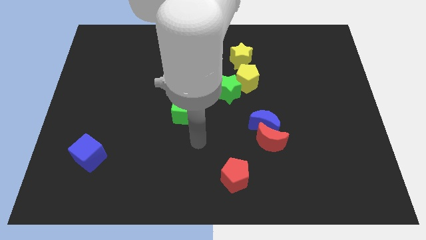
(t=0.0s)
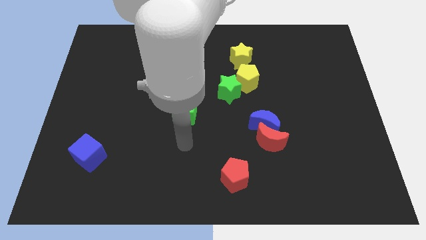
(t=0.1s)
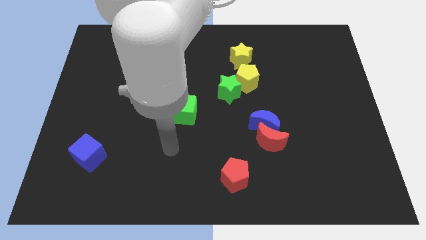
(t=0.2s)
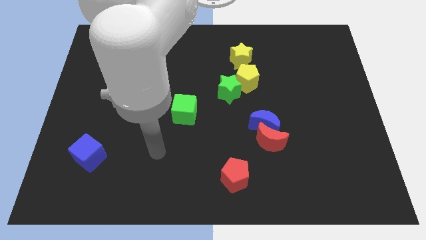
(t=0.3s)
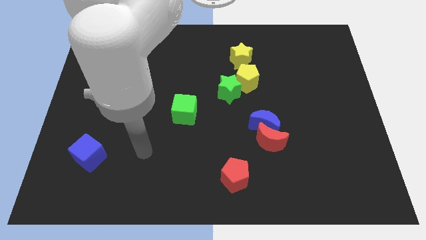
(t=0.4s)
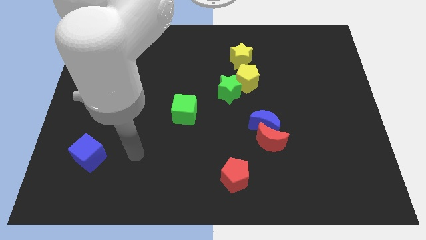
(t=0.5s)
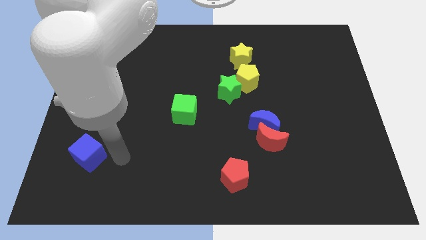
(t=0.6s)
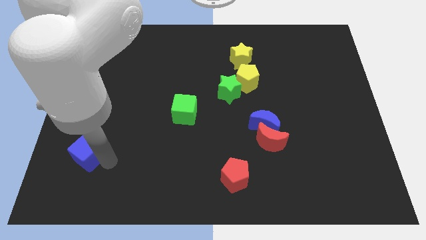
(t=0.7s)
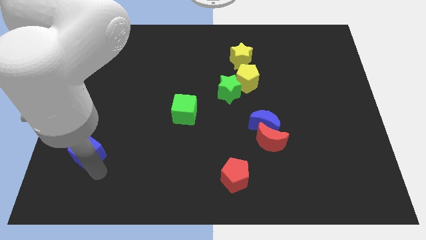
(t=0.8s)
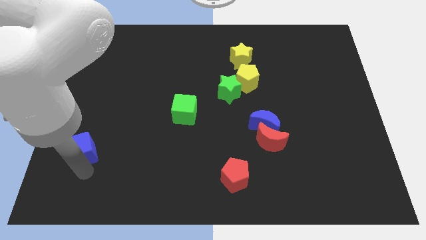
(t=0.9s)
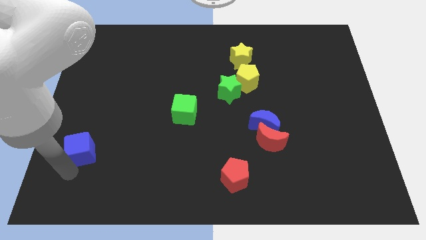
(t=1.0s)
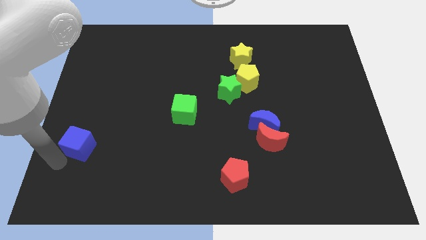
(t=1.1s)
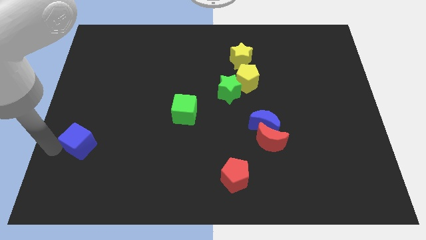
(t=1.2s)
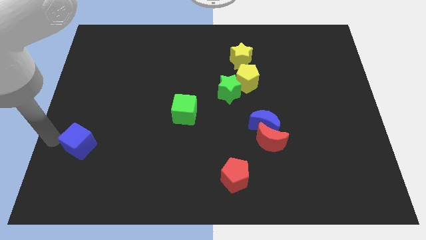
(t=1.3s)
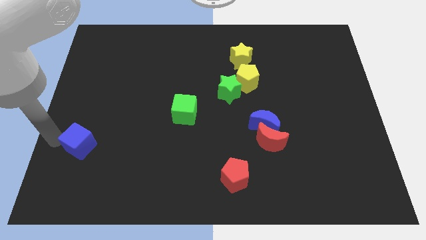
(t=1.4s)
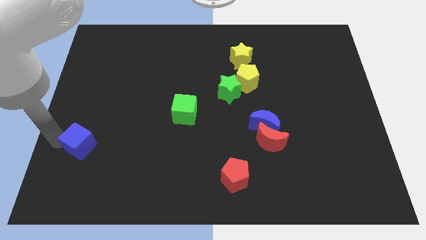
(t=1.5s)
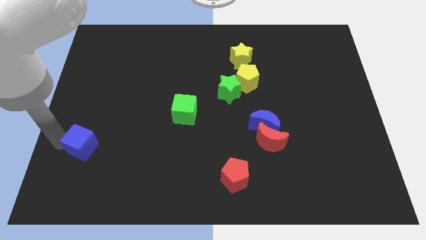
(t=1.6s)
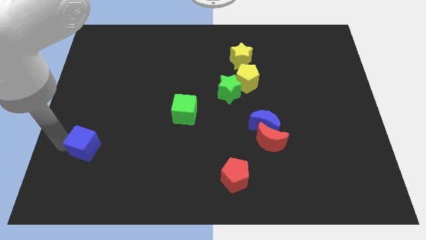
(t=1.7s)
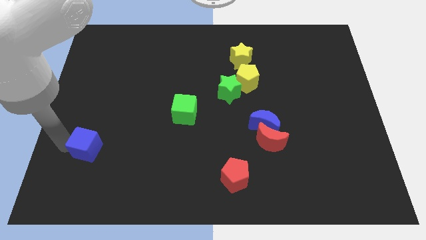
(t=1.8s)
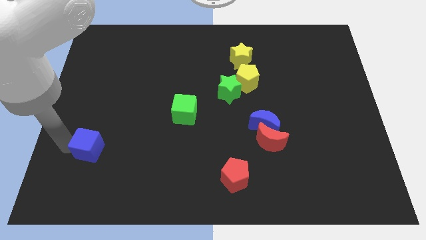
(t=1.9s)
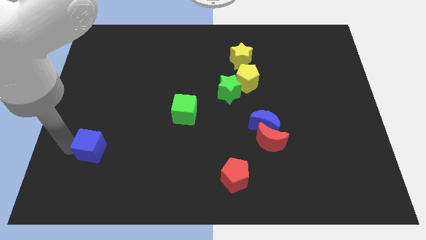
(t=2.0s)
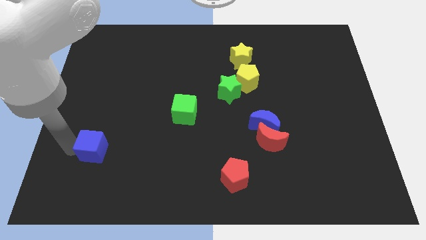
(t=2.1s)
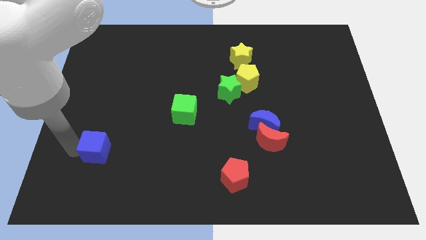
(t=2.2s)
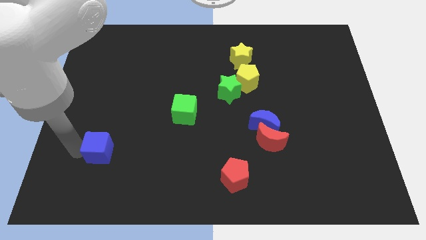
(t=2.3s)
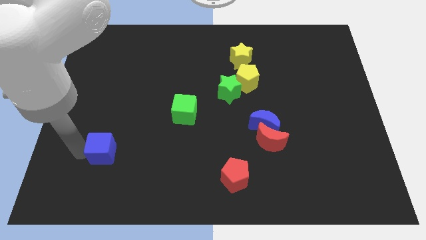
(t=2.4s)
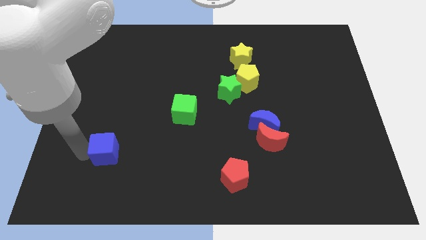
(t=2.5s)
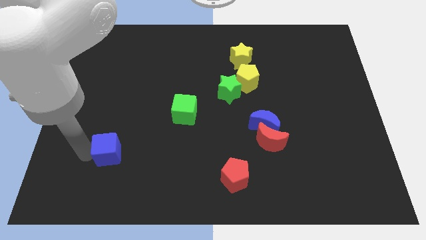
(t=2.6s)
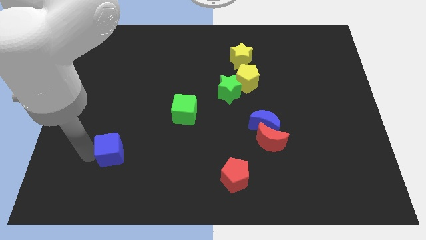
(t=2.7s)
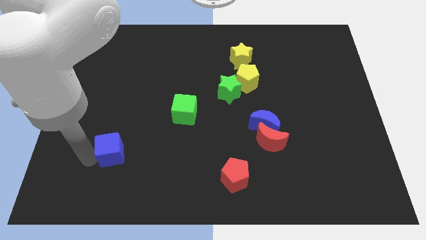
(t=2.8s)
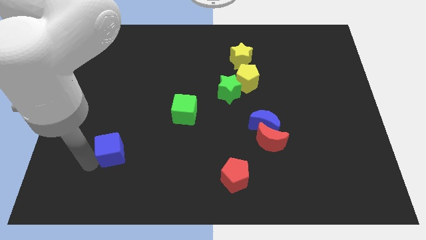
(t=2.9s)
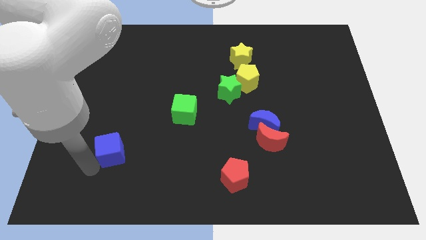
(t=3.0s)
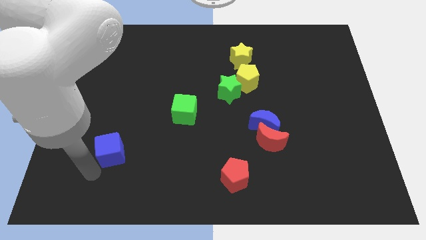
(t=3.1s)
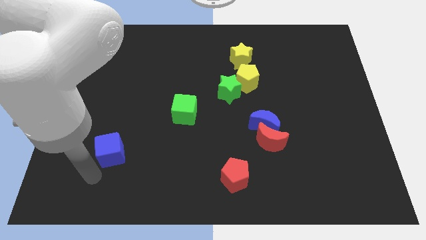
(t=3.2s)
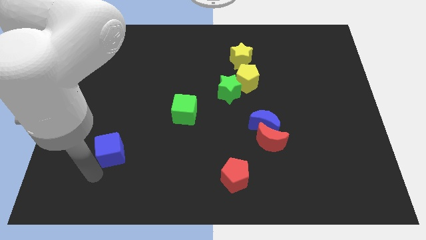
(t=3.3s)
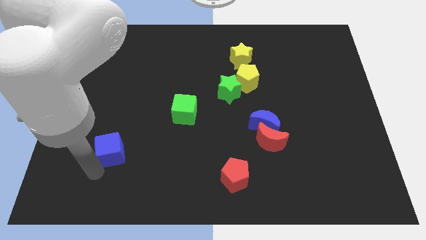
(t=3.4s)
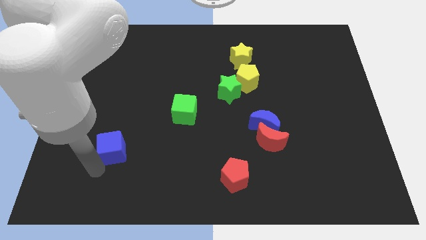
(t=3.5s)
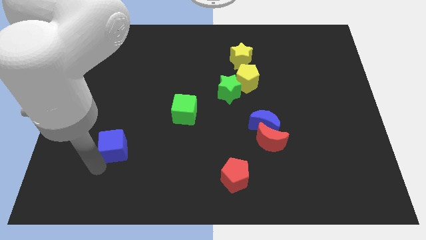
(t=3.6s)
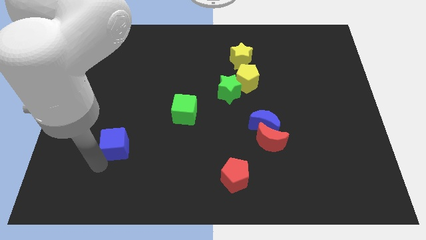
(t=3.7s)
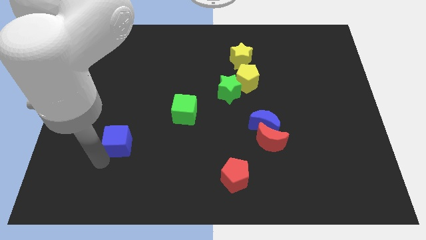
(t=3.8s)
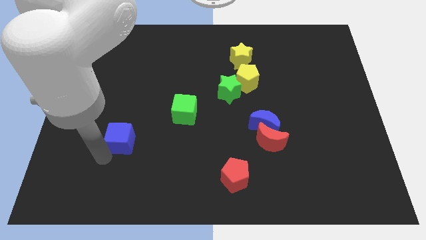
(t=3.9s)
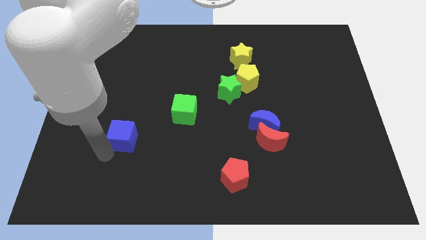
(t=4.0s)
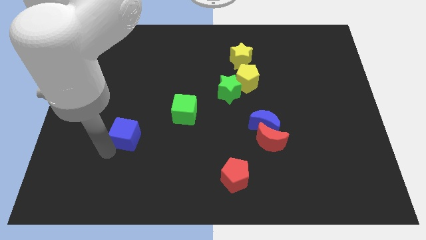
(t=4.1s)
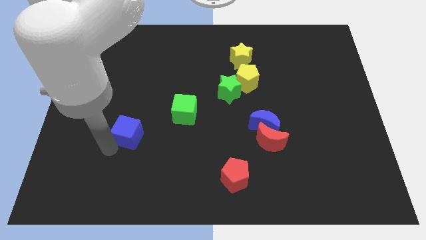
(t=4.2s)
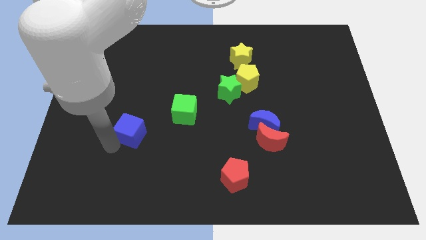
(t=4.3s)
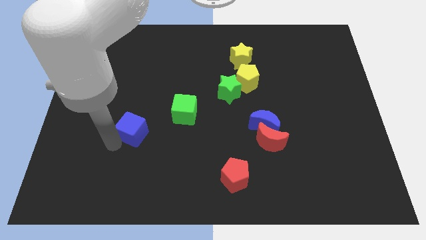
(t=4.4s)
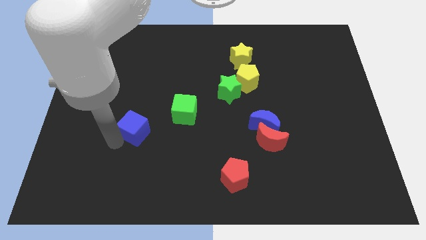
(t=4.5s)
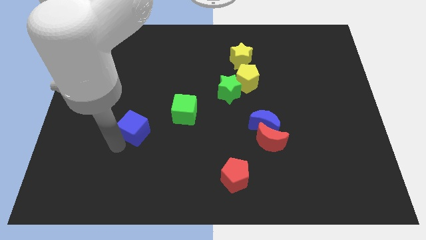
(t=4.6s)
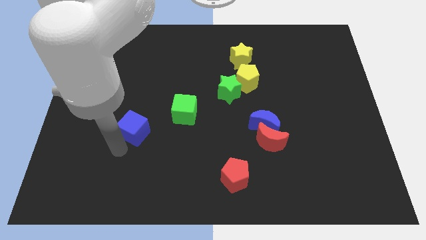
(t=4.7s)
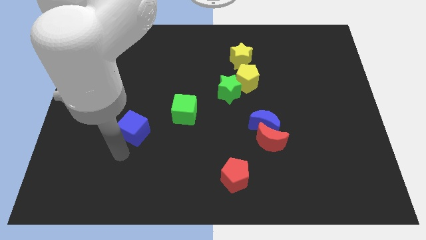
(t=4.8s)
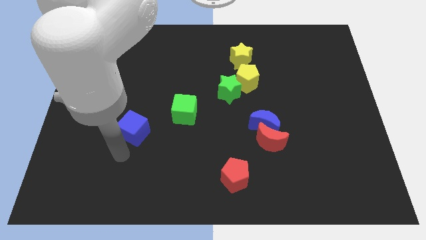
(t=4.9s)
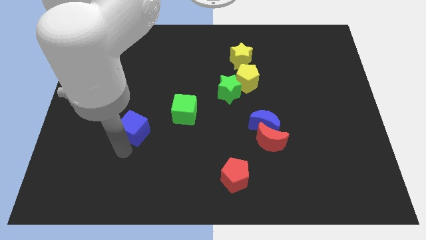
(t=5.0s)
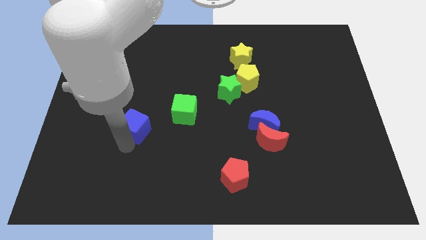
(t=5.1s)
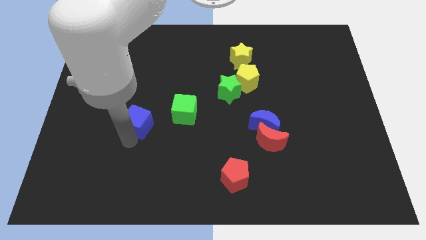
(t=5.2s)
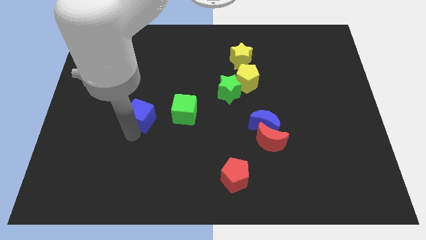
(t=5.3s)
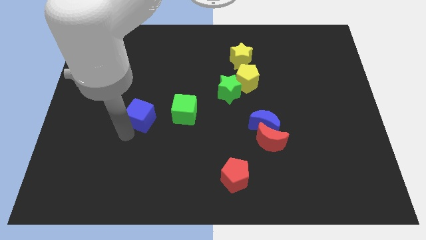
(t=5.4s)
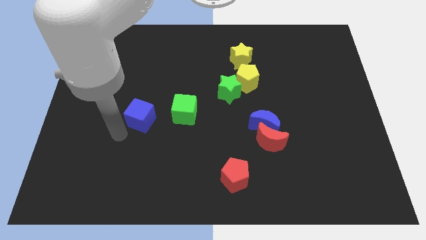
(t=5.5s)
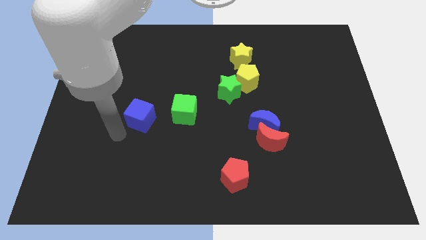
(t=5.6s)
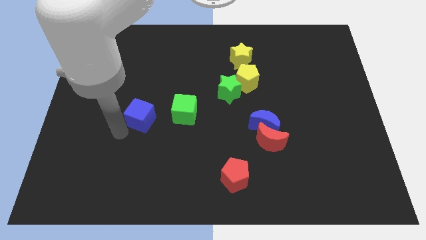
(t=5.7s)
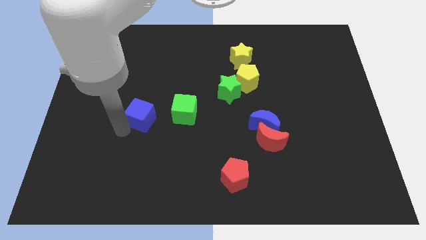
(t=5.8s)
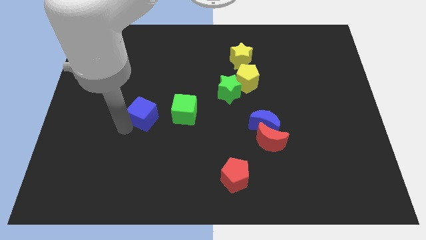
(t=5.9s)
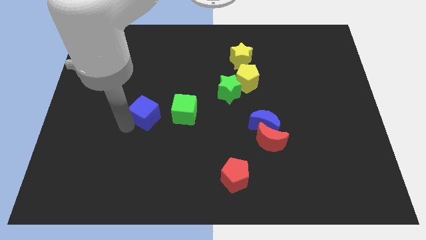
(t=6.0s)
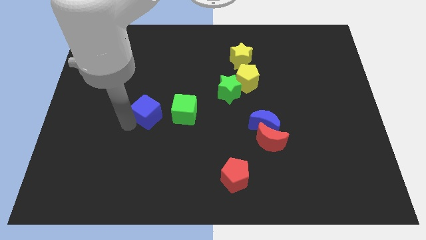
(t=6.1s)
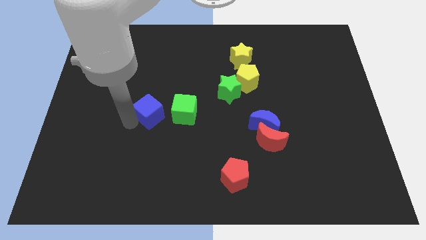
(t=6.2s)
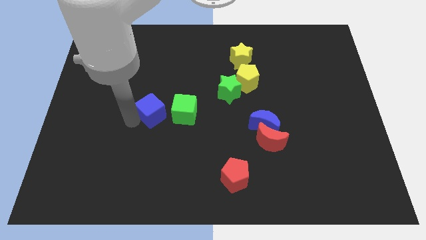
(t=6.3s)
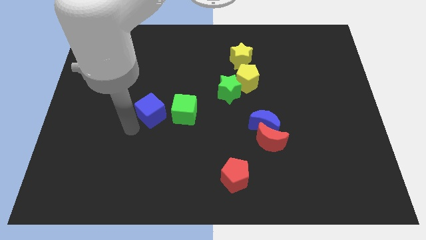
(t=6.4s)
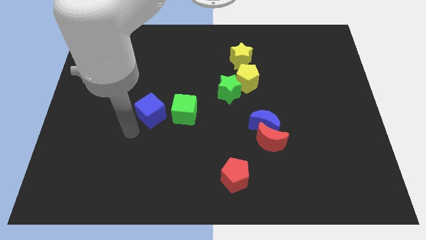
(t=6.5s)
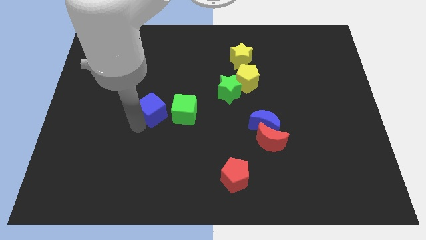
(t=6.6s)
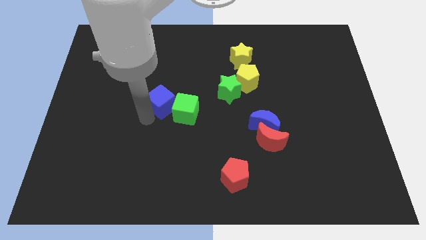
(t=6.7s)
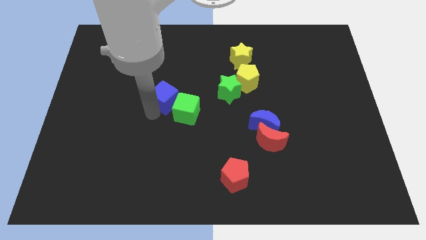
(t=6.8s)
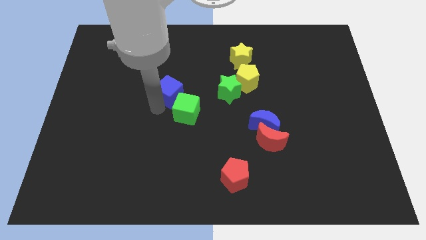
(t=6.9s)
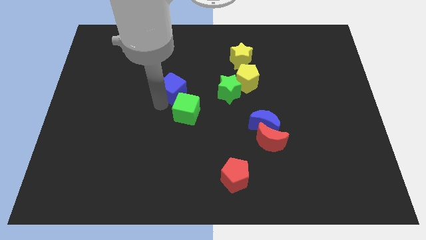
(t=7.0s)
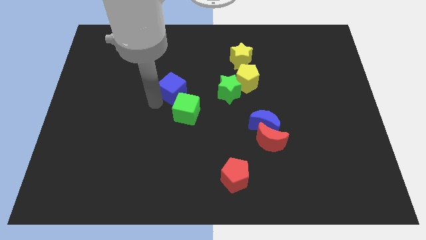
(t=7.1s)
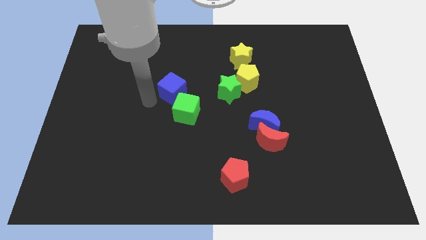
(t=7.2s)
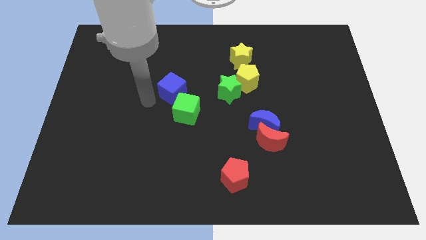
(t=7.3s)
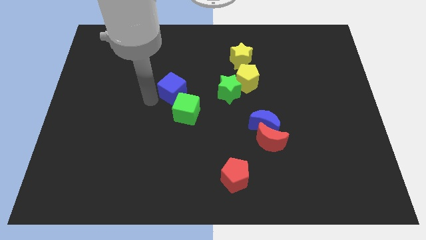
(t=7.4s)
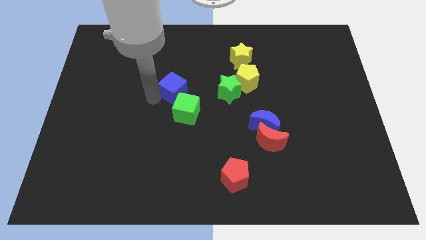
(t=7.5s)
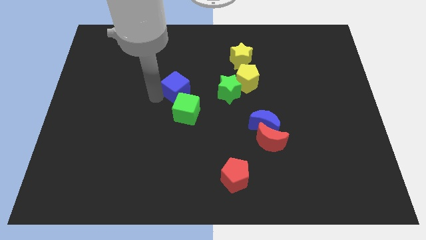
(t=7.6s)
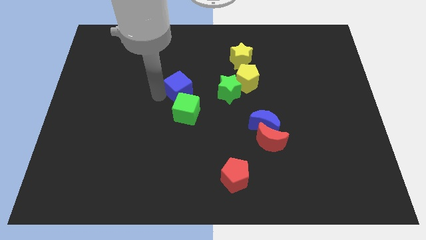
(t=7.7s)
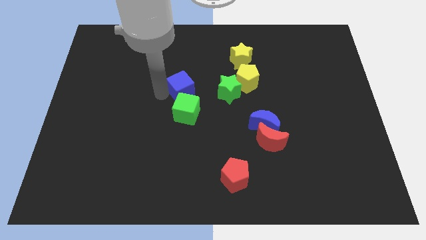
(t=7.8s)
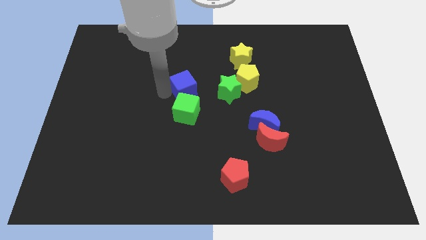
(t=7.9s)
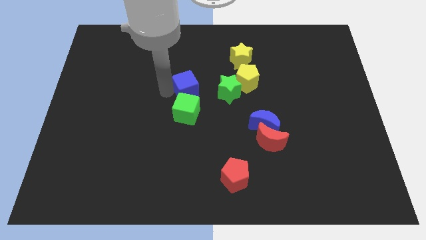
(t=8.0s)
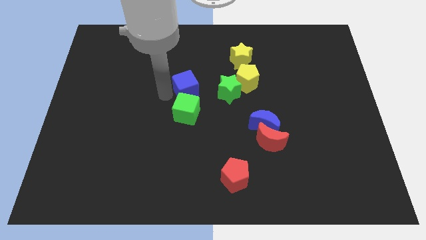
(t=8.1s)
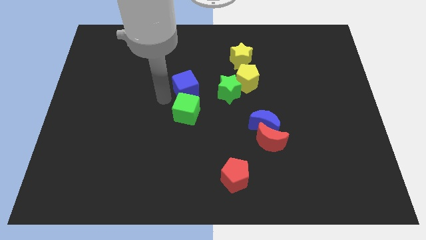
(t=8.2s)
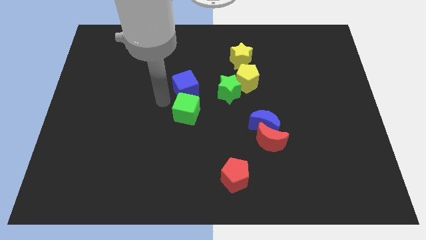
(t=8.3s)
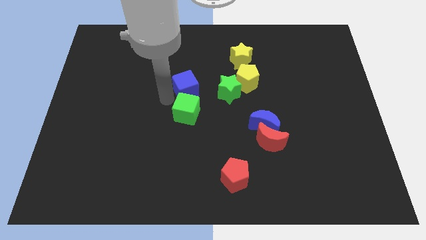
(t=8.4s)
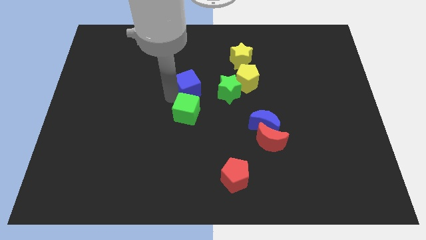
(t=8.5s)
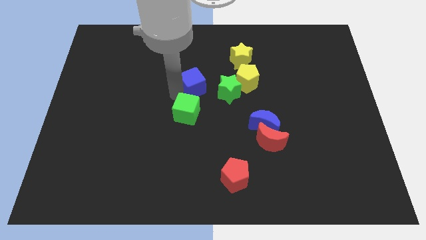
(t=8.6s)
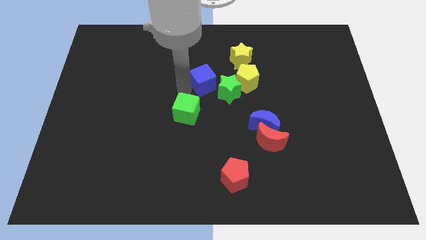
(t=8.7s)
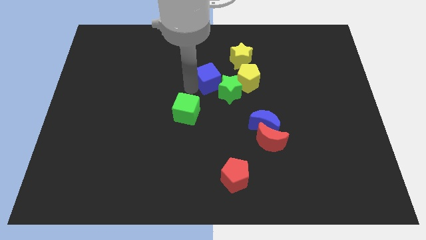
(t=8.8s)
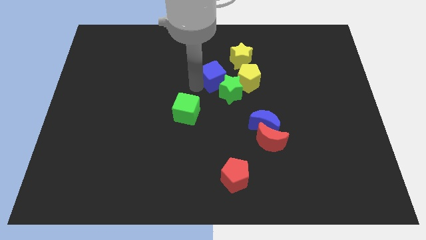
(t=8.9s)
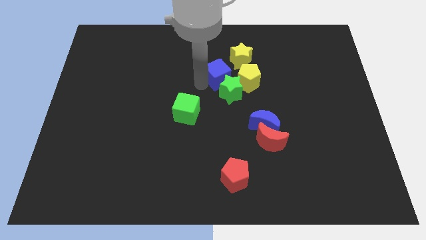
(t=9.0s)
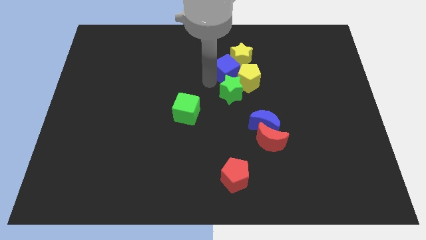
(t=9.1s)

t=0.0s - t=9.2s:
push the blue cube next to the yellow star
